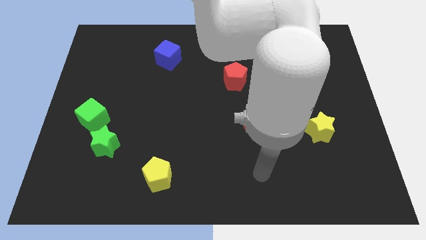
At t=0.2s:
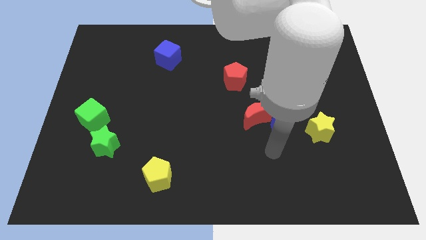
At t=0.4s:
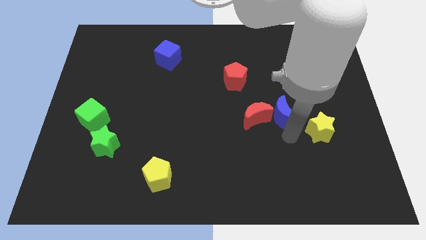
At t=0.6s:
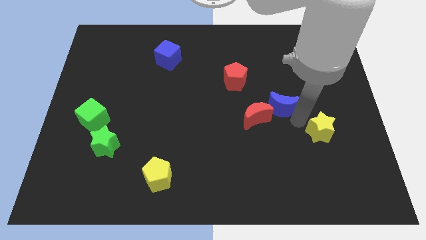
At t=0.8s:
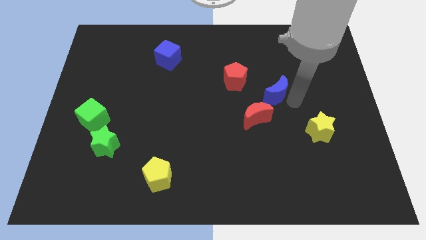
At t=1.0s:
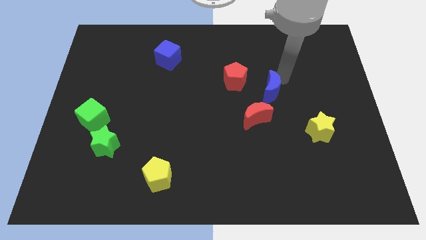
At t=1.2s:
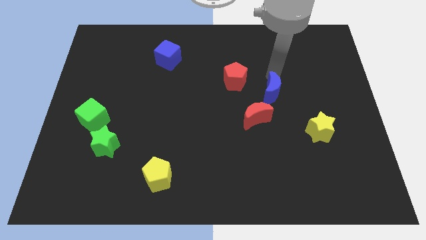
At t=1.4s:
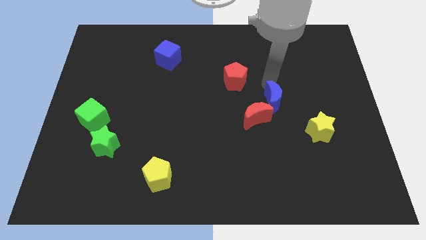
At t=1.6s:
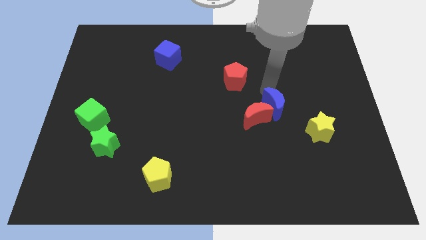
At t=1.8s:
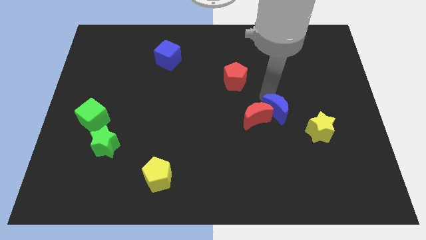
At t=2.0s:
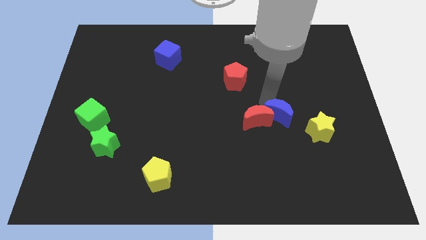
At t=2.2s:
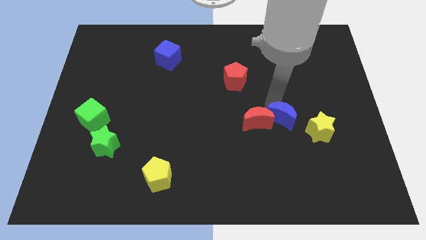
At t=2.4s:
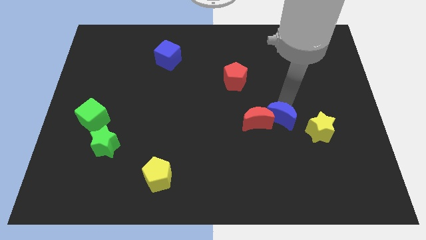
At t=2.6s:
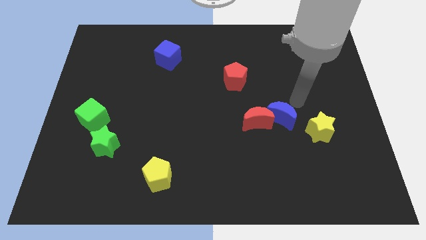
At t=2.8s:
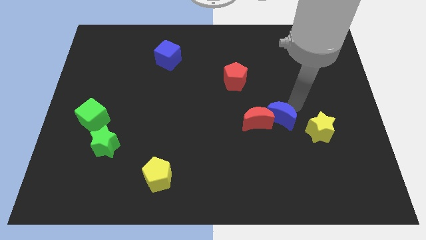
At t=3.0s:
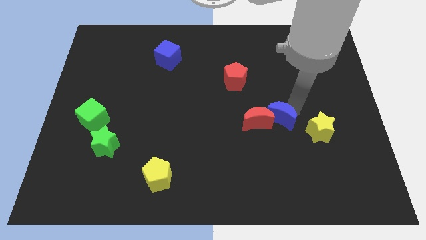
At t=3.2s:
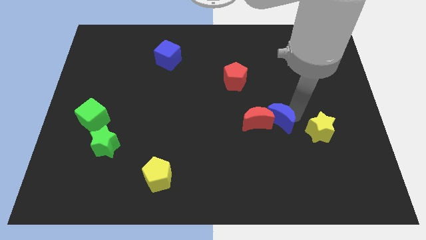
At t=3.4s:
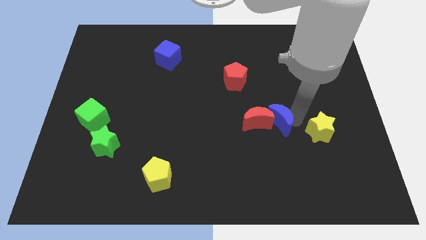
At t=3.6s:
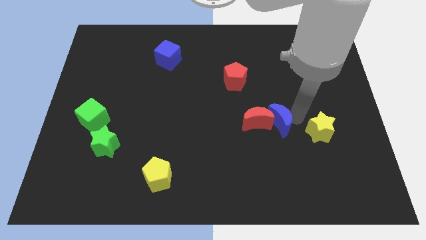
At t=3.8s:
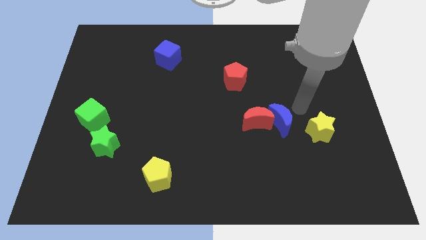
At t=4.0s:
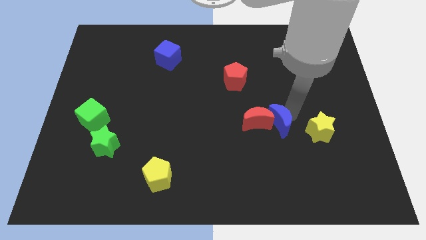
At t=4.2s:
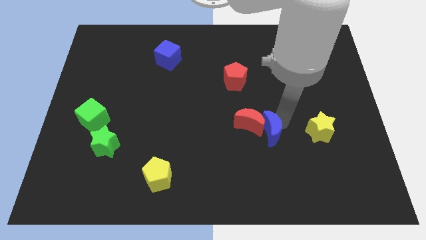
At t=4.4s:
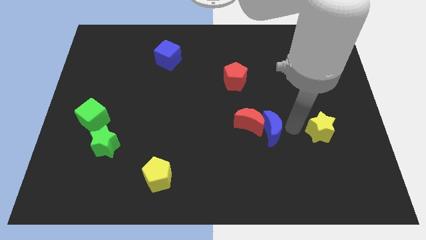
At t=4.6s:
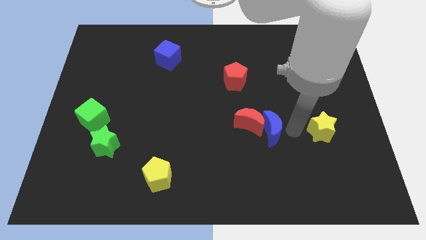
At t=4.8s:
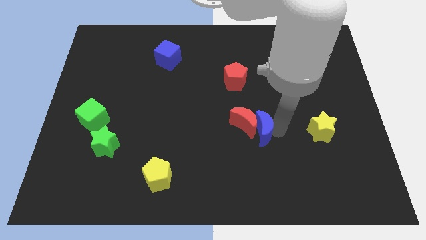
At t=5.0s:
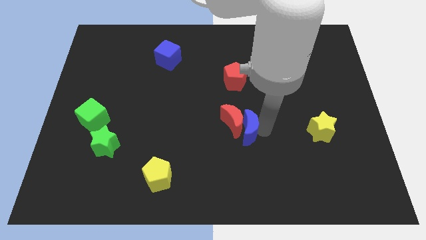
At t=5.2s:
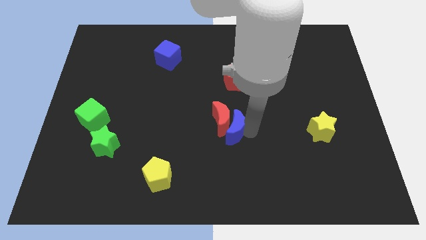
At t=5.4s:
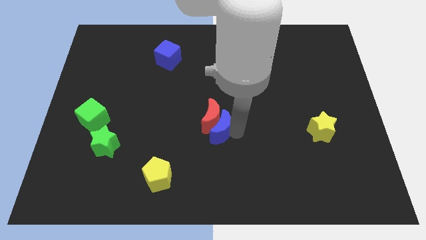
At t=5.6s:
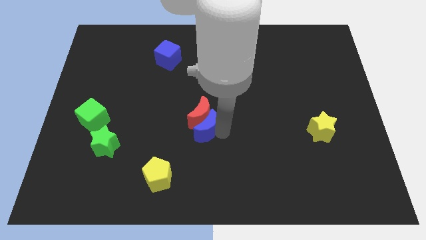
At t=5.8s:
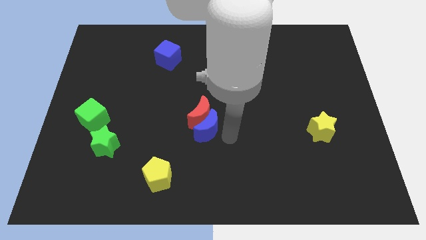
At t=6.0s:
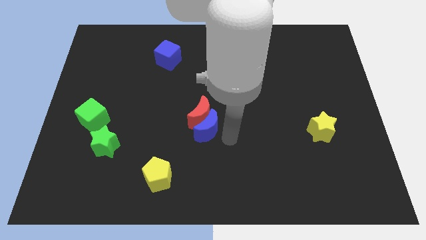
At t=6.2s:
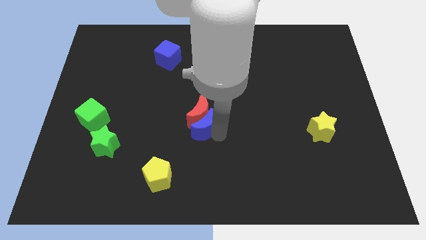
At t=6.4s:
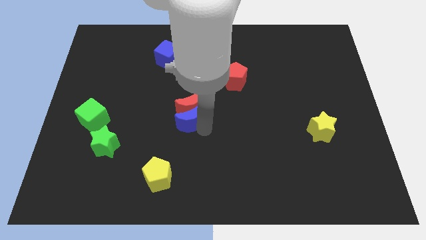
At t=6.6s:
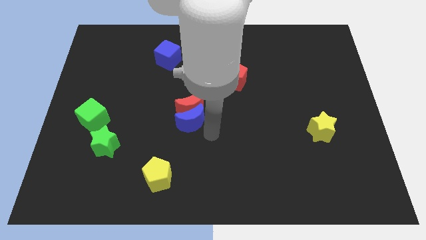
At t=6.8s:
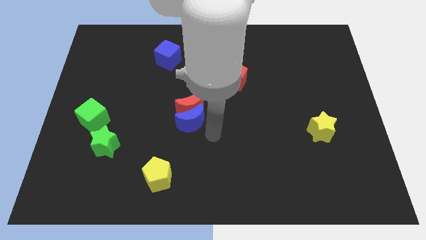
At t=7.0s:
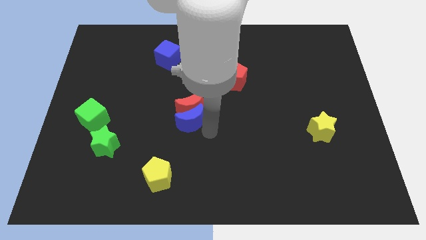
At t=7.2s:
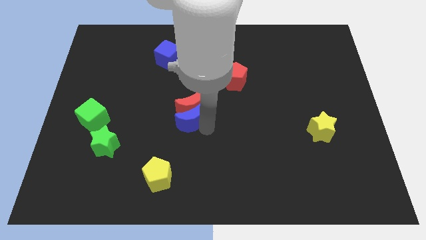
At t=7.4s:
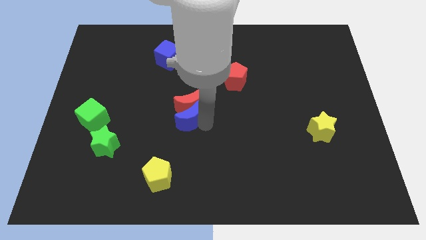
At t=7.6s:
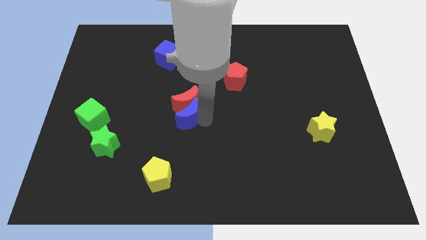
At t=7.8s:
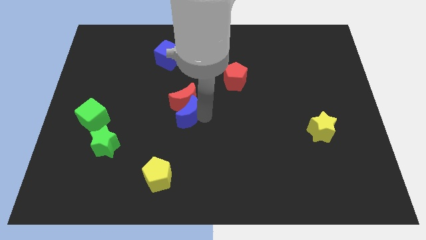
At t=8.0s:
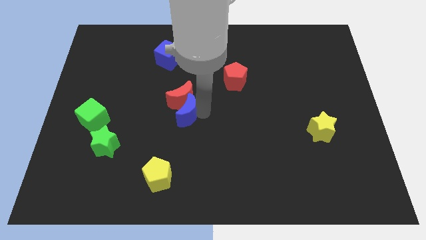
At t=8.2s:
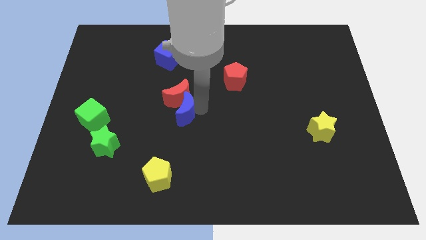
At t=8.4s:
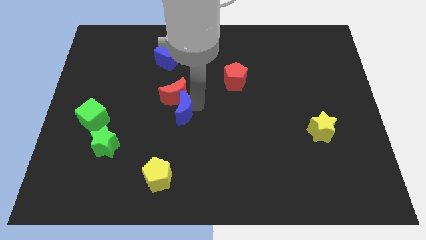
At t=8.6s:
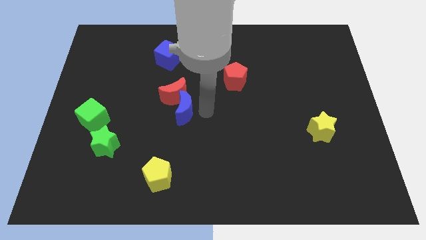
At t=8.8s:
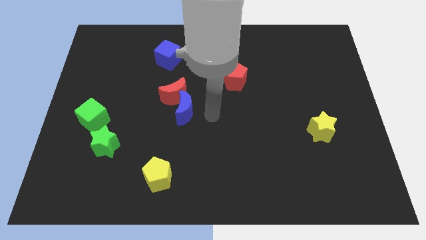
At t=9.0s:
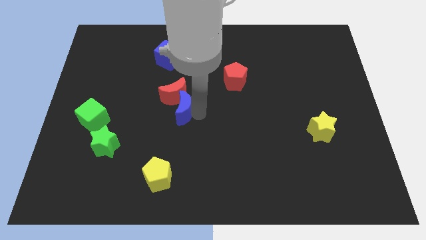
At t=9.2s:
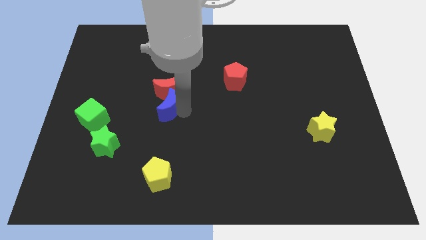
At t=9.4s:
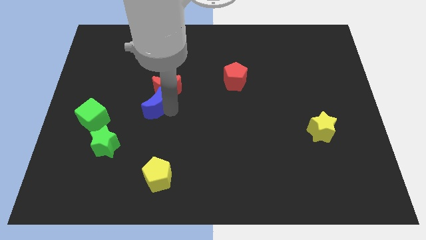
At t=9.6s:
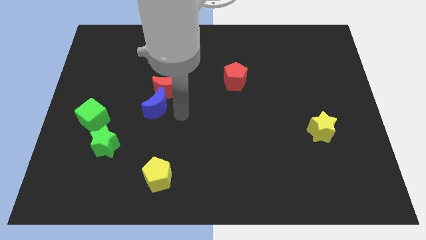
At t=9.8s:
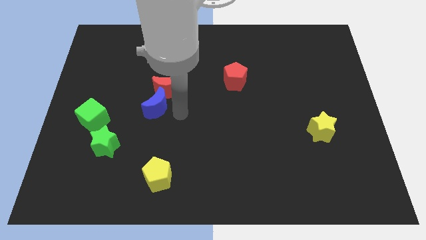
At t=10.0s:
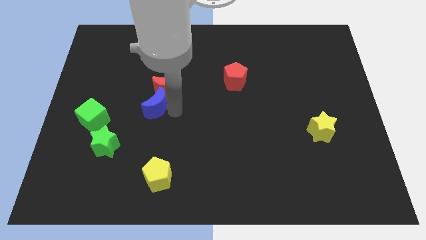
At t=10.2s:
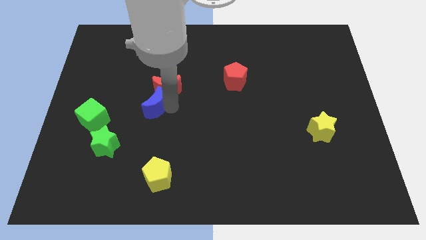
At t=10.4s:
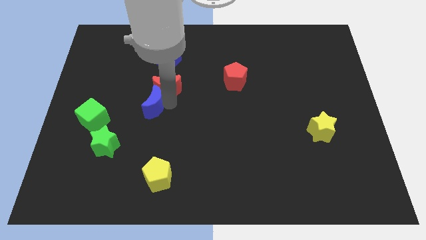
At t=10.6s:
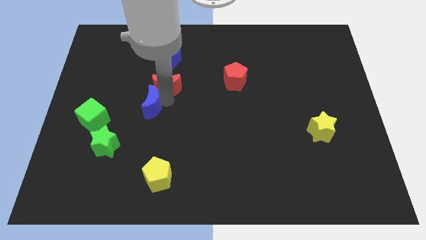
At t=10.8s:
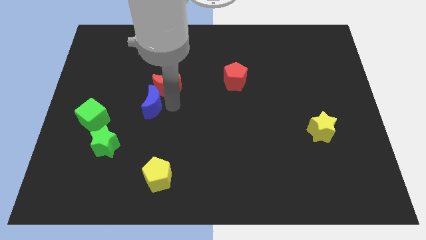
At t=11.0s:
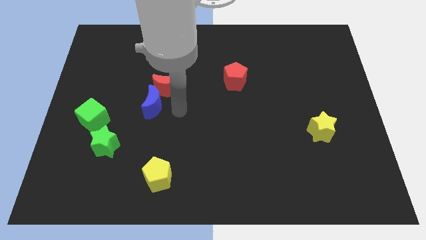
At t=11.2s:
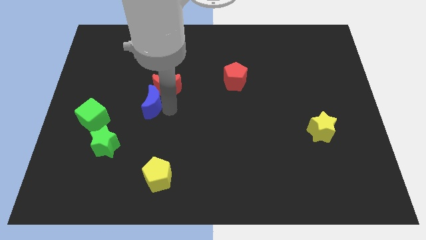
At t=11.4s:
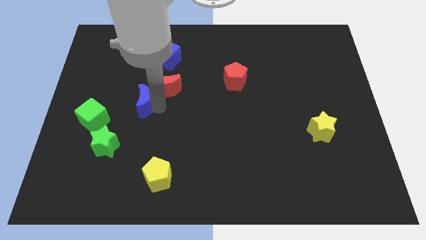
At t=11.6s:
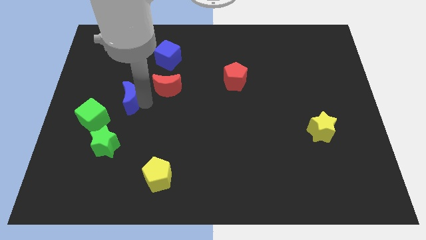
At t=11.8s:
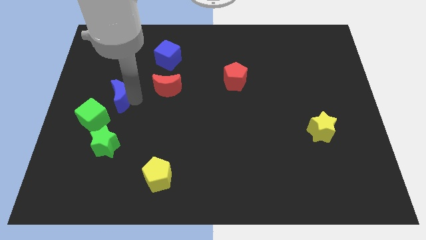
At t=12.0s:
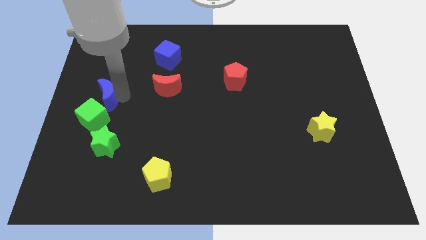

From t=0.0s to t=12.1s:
move the blue moon to the left side
